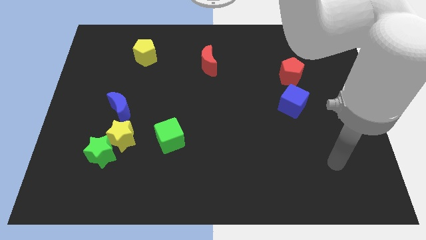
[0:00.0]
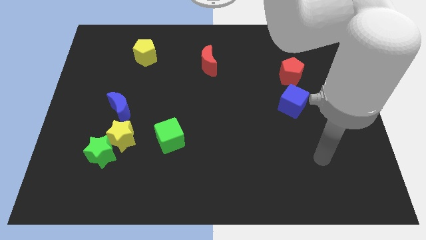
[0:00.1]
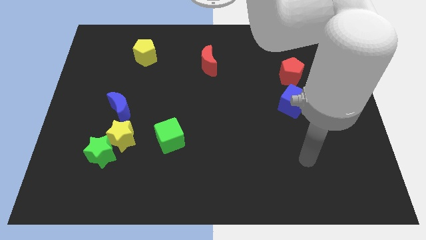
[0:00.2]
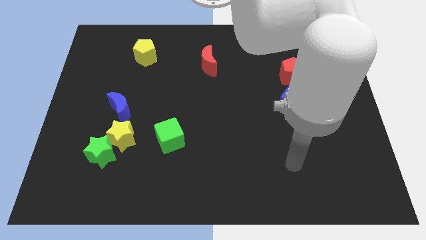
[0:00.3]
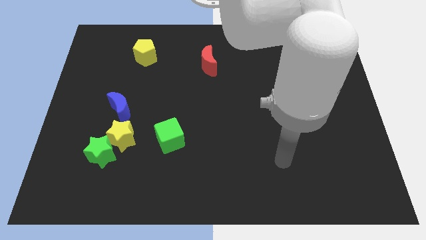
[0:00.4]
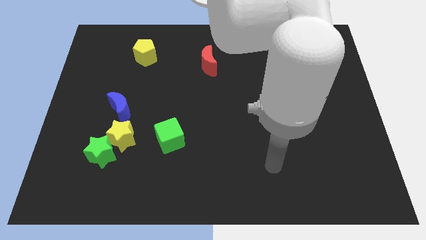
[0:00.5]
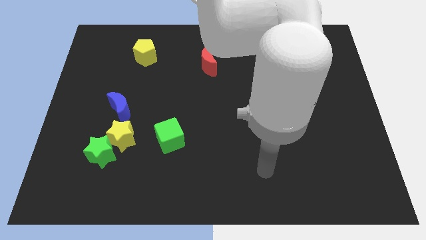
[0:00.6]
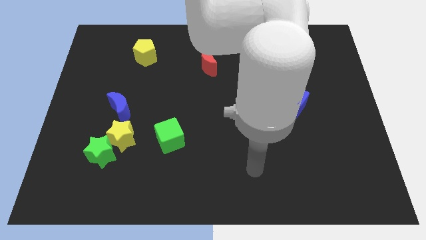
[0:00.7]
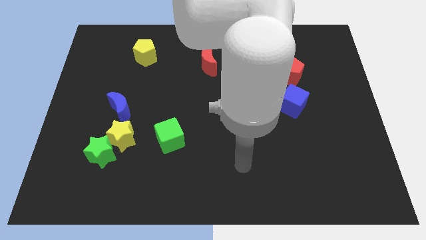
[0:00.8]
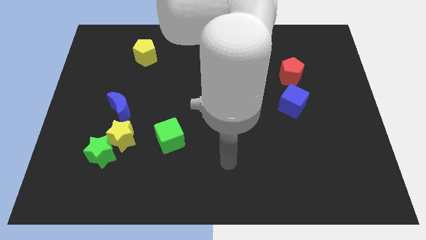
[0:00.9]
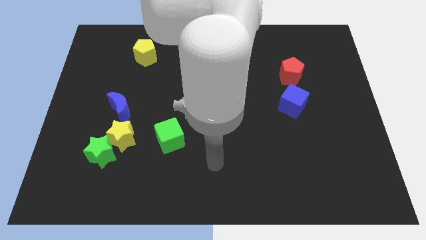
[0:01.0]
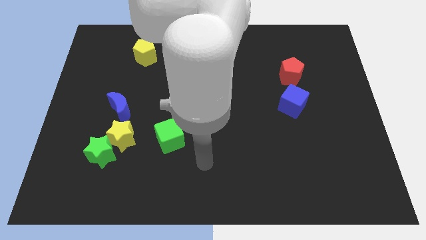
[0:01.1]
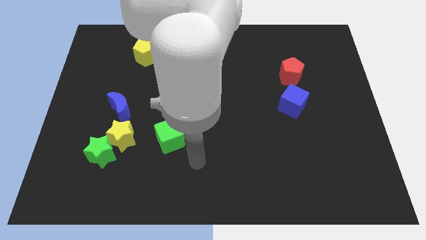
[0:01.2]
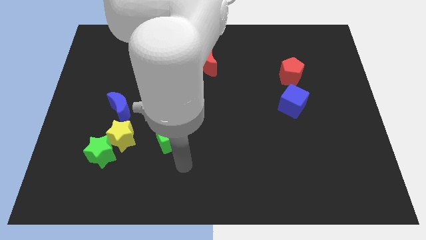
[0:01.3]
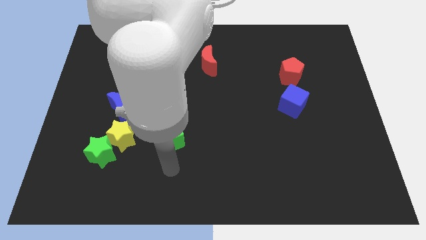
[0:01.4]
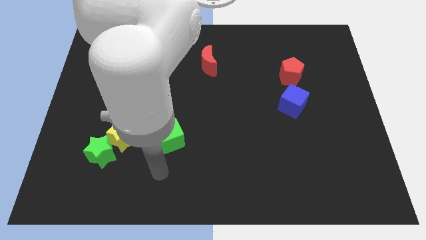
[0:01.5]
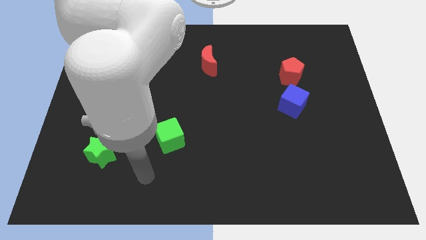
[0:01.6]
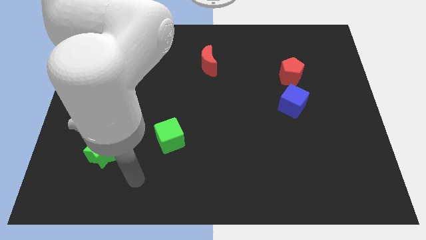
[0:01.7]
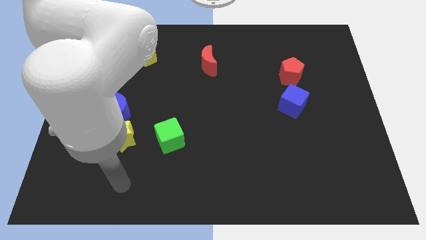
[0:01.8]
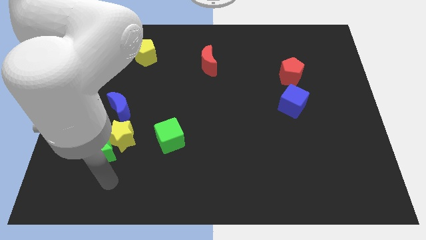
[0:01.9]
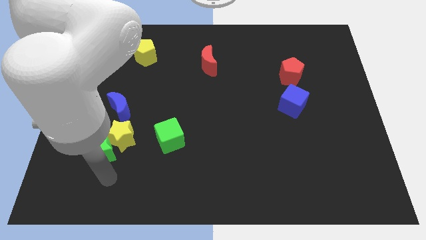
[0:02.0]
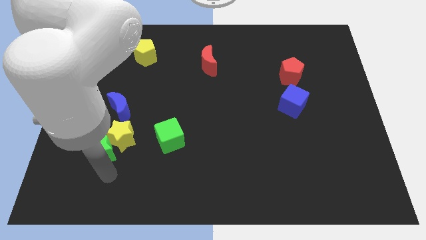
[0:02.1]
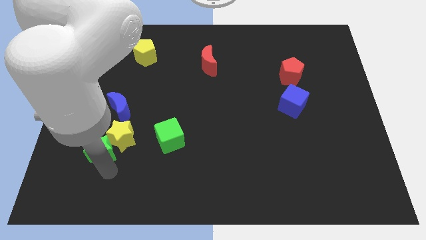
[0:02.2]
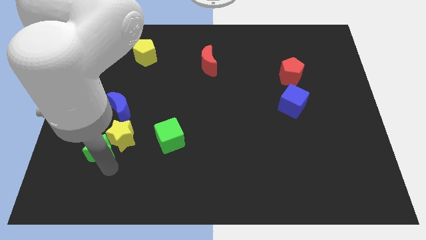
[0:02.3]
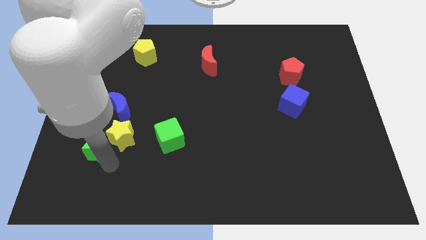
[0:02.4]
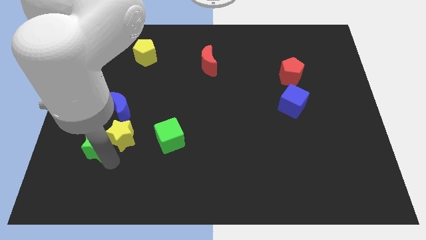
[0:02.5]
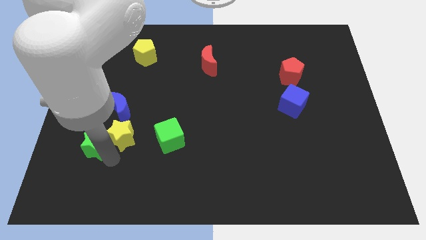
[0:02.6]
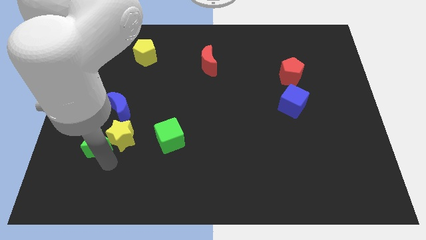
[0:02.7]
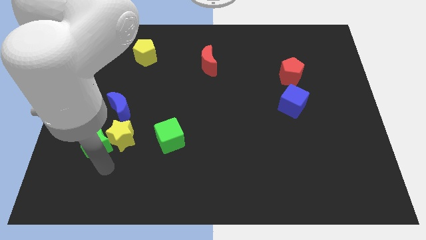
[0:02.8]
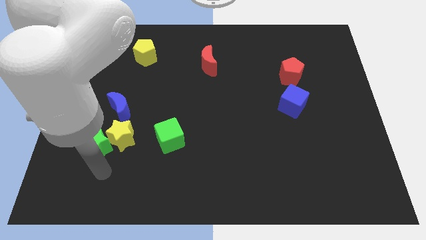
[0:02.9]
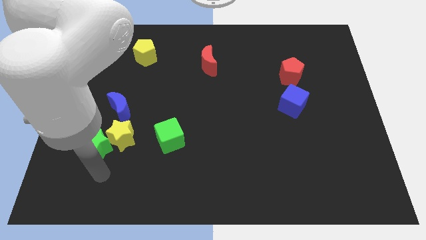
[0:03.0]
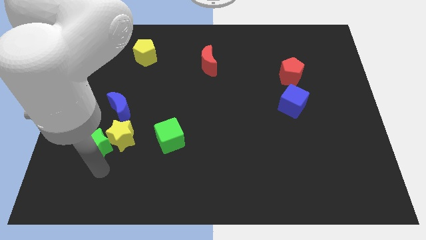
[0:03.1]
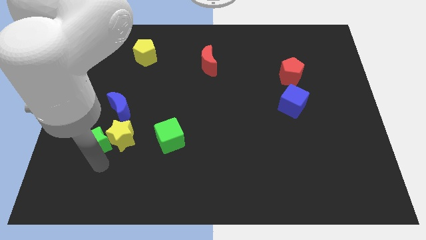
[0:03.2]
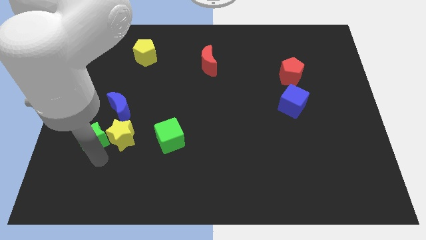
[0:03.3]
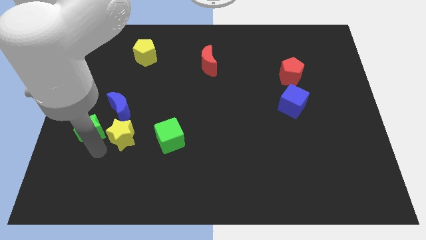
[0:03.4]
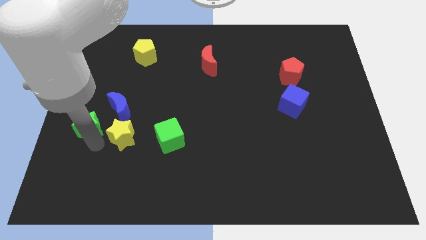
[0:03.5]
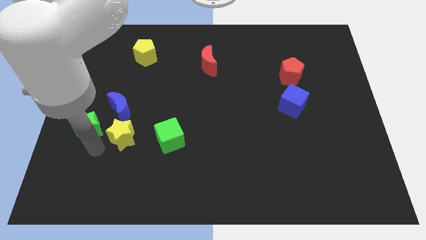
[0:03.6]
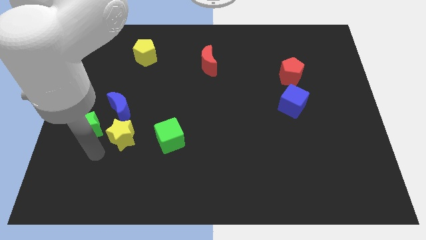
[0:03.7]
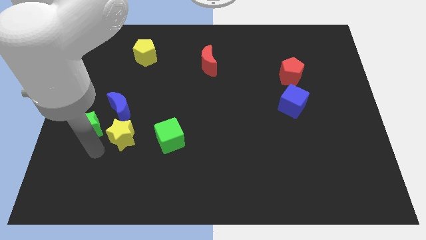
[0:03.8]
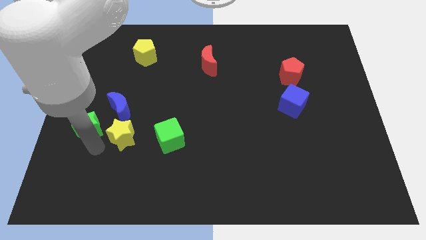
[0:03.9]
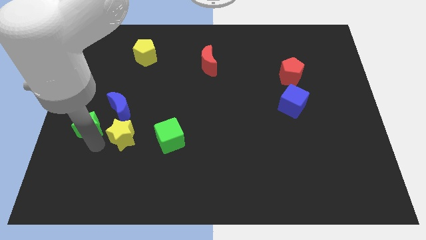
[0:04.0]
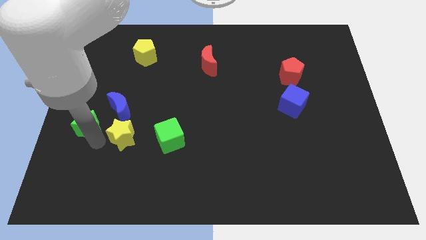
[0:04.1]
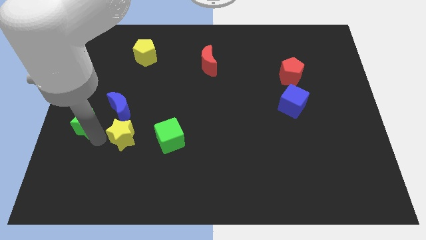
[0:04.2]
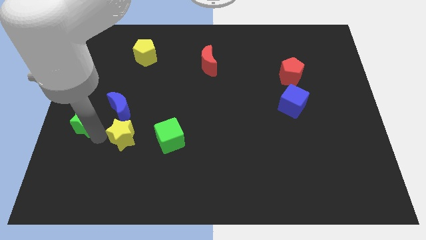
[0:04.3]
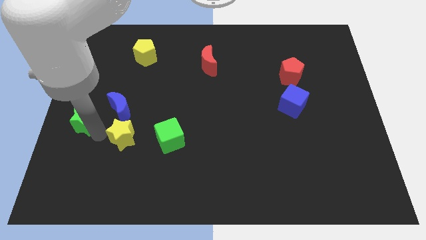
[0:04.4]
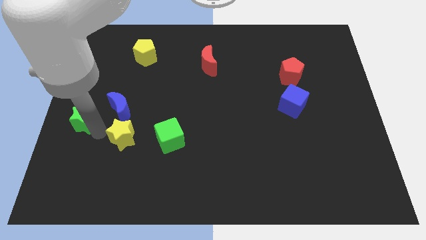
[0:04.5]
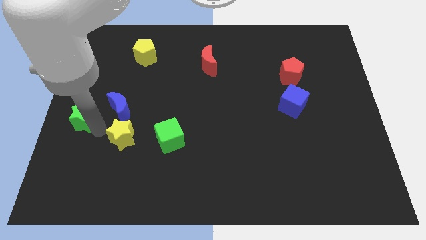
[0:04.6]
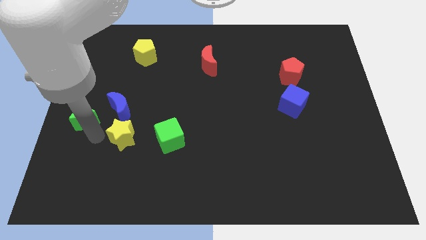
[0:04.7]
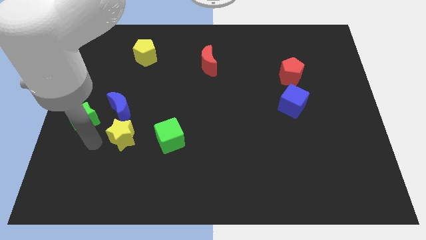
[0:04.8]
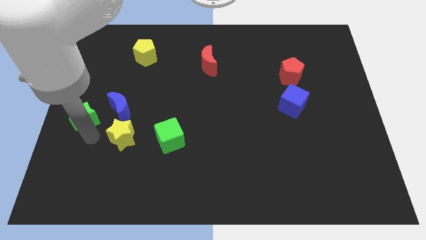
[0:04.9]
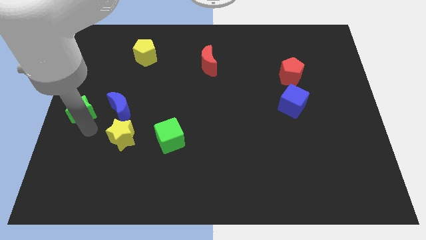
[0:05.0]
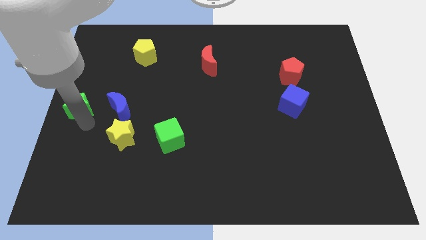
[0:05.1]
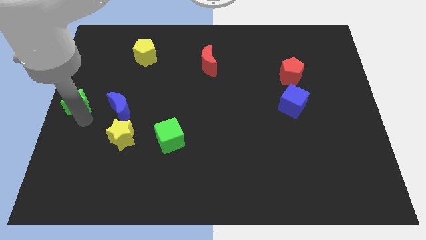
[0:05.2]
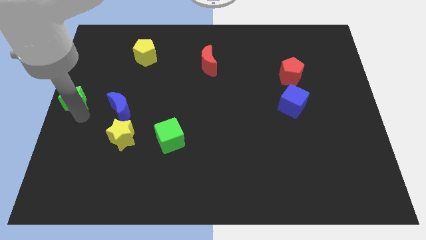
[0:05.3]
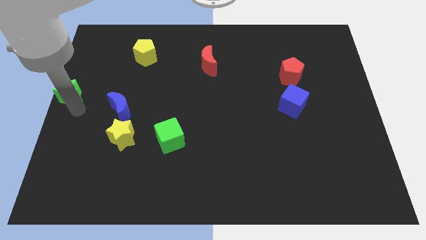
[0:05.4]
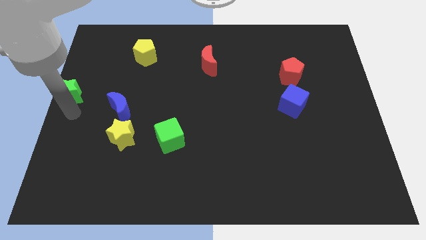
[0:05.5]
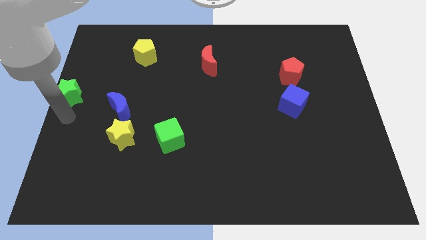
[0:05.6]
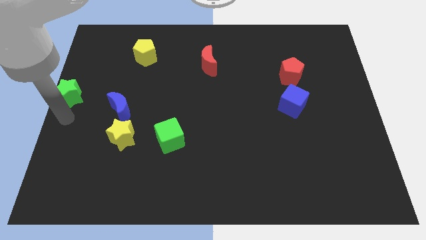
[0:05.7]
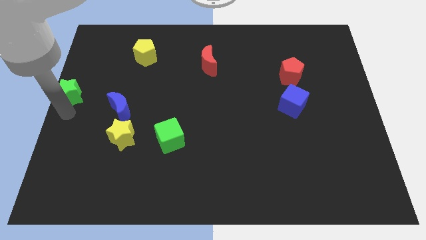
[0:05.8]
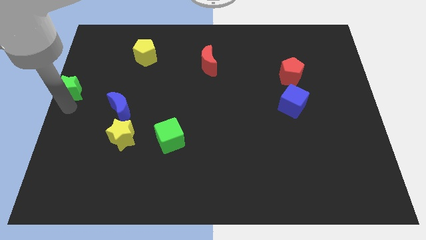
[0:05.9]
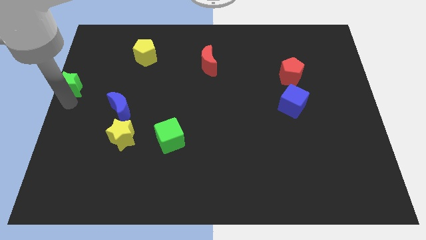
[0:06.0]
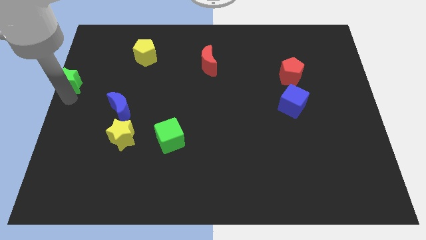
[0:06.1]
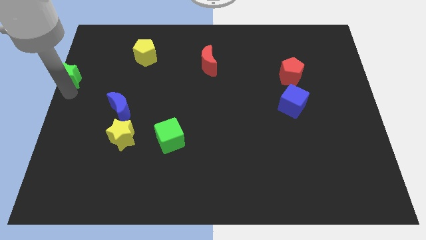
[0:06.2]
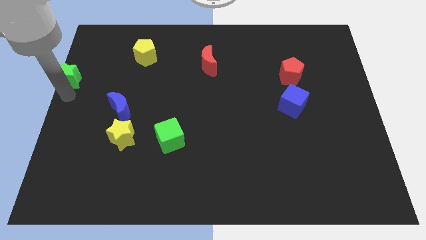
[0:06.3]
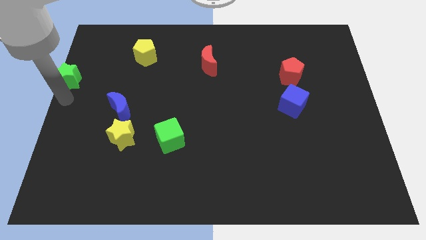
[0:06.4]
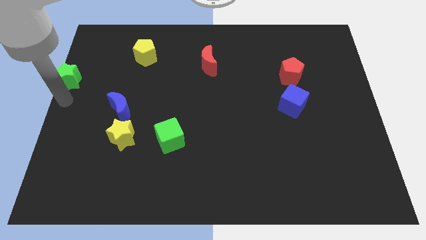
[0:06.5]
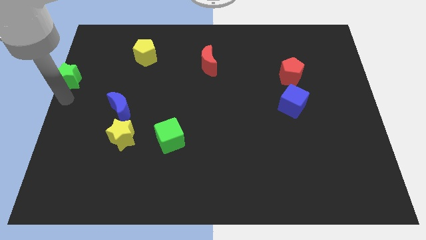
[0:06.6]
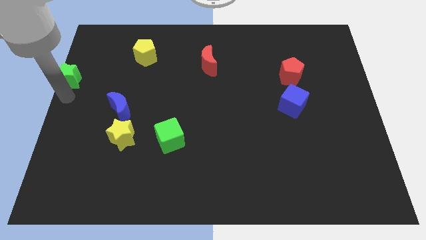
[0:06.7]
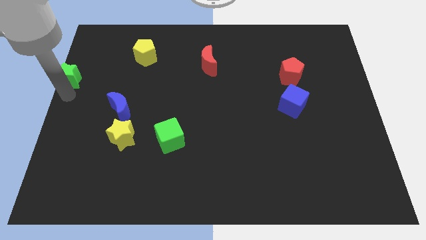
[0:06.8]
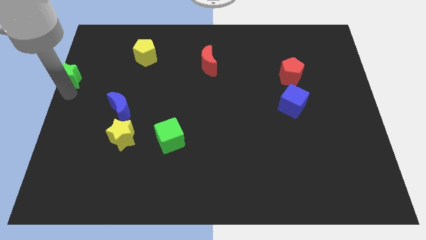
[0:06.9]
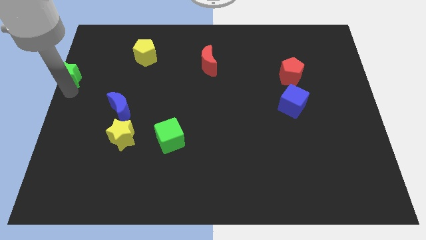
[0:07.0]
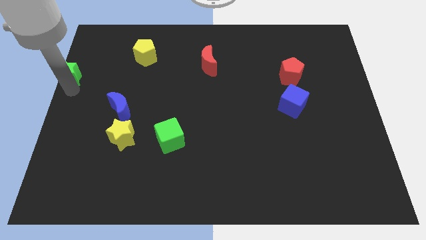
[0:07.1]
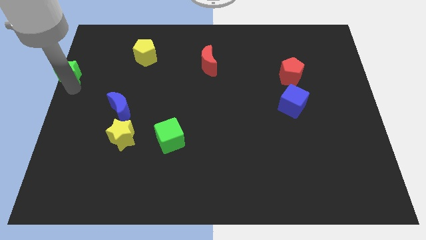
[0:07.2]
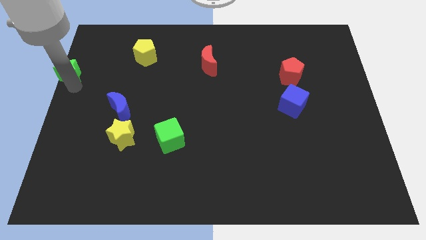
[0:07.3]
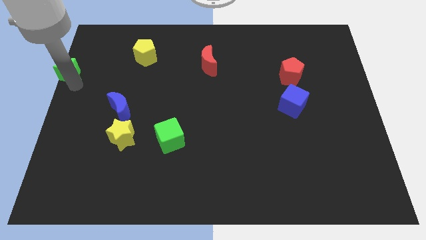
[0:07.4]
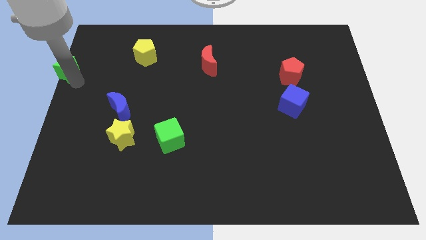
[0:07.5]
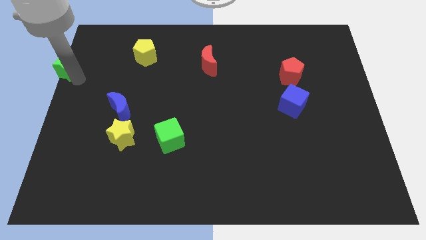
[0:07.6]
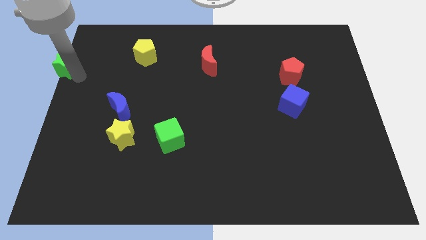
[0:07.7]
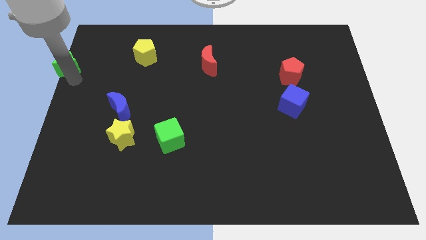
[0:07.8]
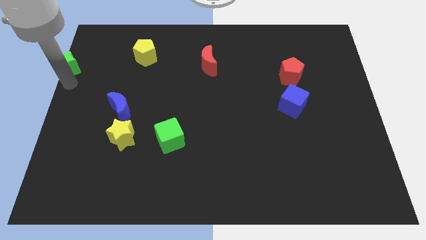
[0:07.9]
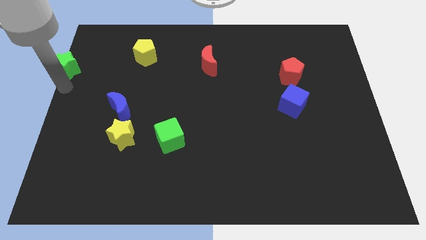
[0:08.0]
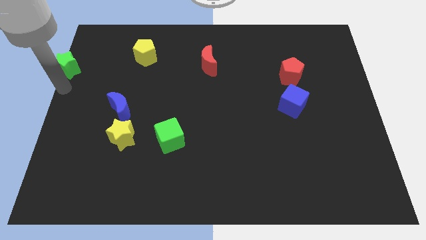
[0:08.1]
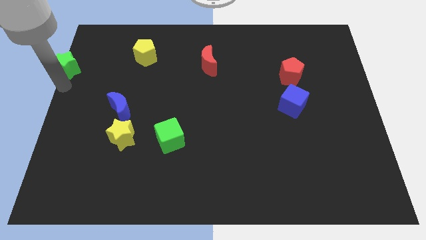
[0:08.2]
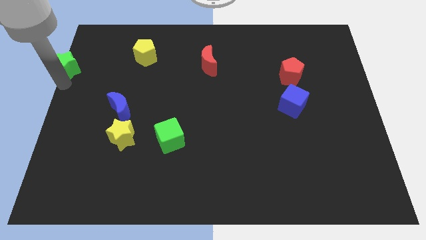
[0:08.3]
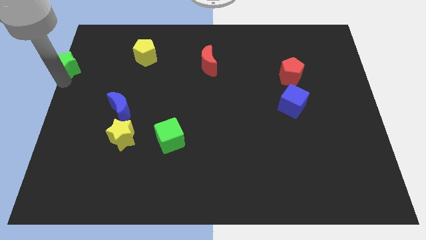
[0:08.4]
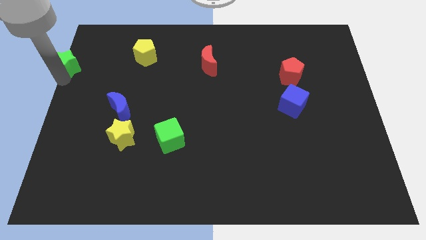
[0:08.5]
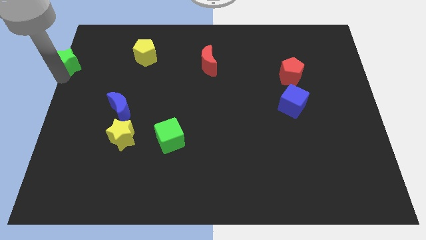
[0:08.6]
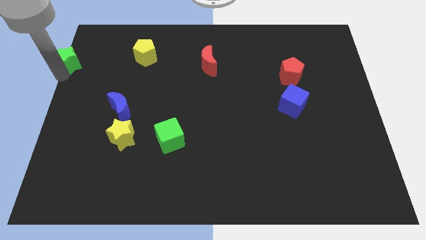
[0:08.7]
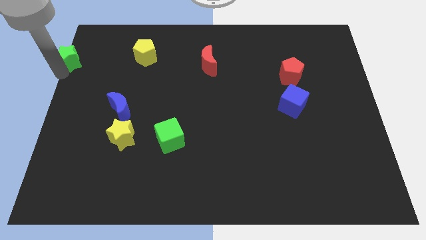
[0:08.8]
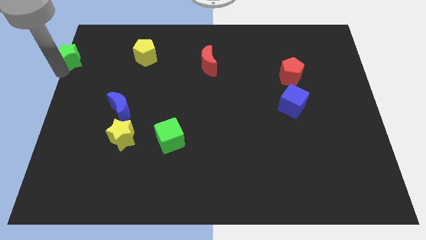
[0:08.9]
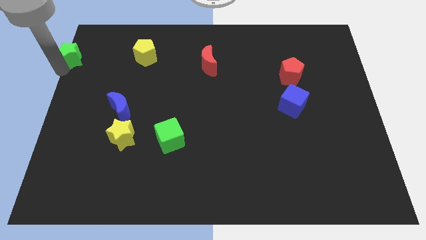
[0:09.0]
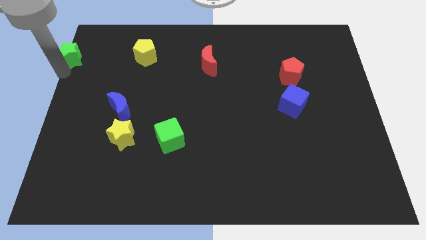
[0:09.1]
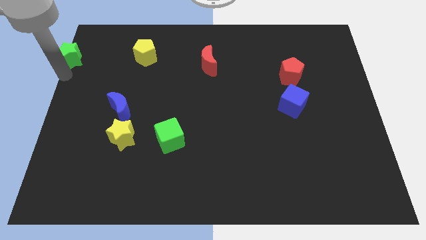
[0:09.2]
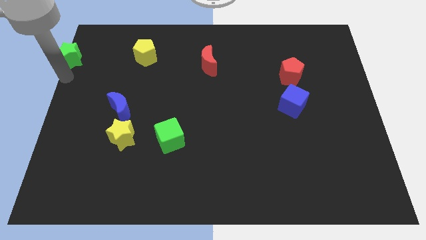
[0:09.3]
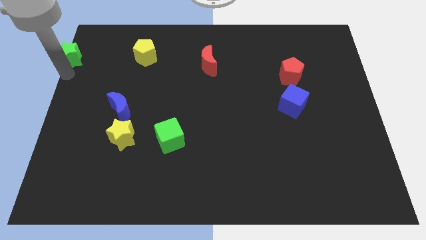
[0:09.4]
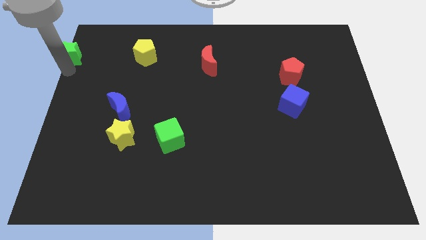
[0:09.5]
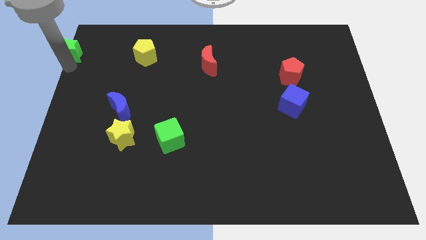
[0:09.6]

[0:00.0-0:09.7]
push the green star to the top left corner
